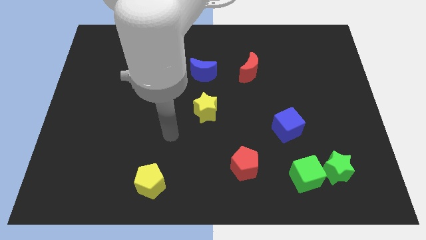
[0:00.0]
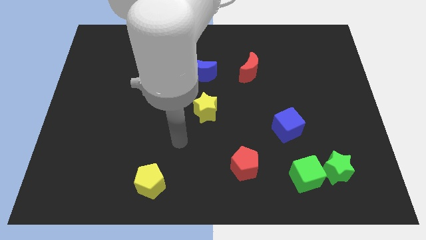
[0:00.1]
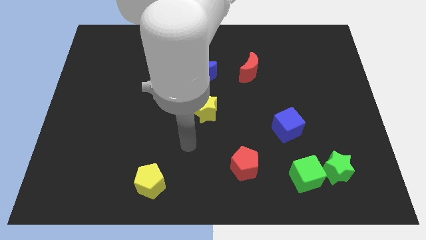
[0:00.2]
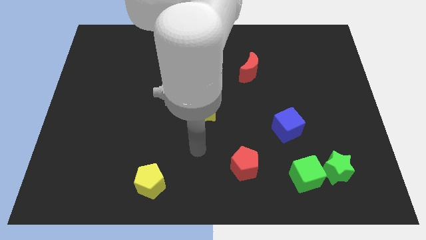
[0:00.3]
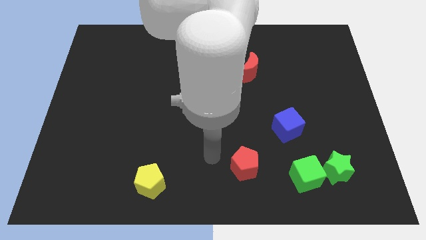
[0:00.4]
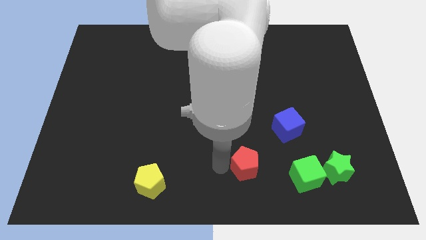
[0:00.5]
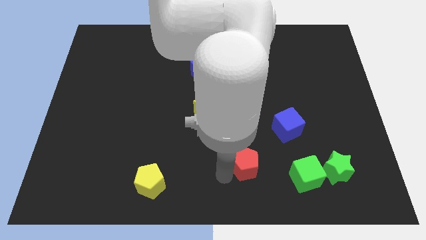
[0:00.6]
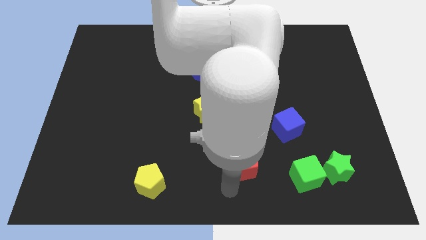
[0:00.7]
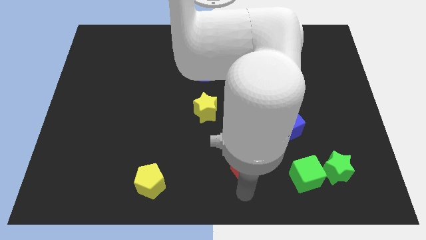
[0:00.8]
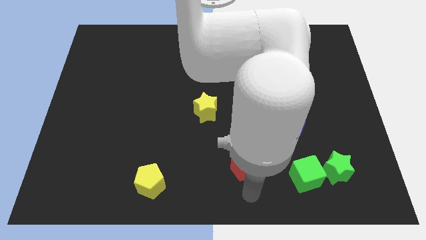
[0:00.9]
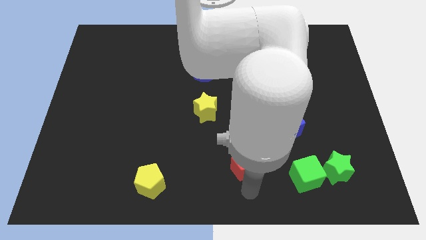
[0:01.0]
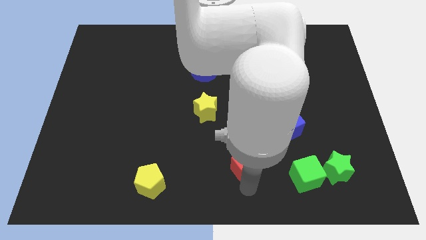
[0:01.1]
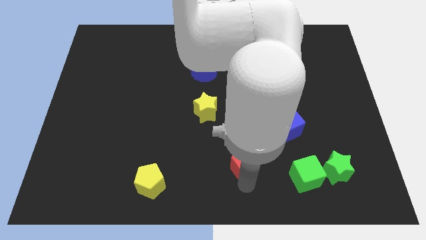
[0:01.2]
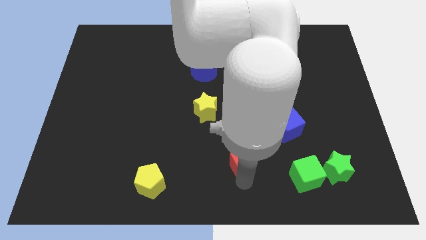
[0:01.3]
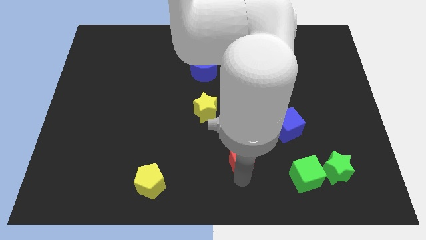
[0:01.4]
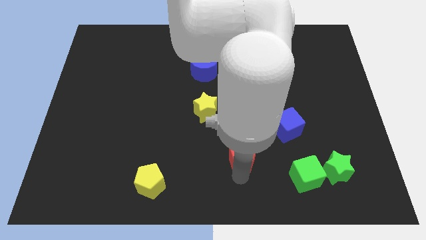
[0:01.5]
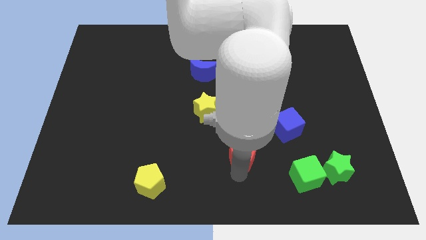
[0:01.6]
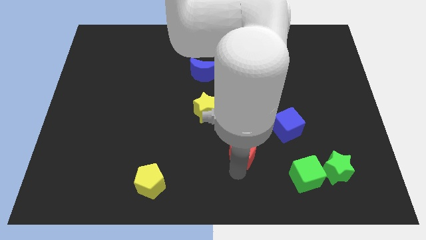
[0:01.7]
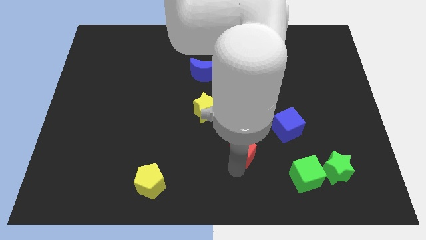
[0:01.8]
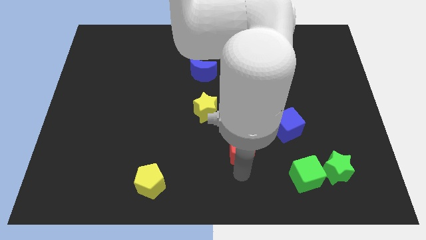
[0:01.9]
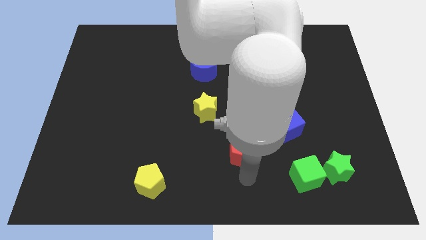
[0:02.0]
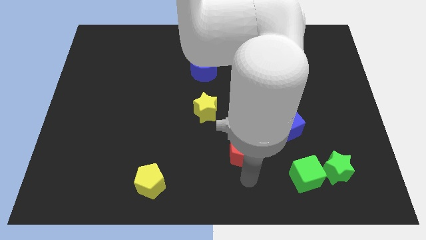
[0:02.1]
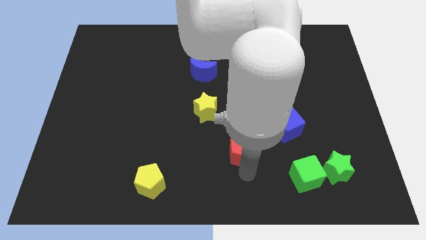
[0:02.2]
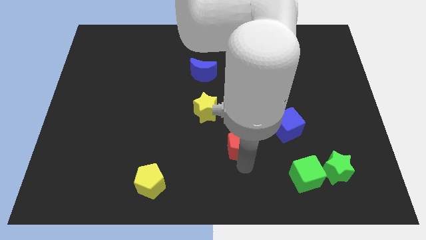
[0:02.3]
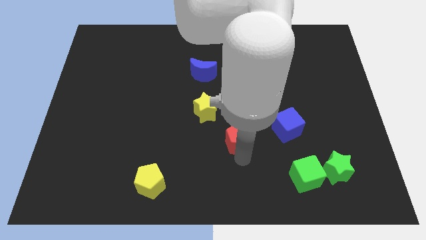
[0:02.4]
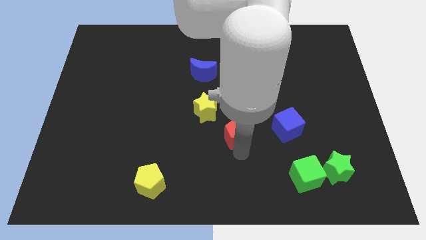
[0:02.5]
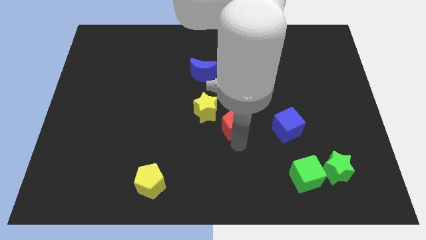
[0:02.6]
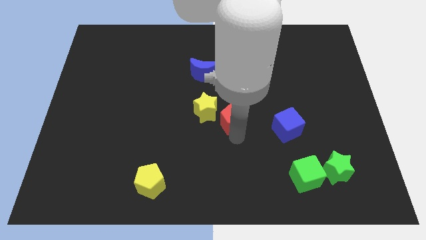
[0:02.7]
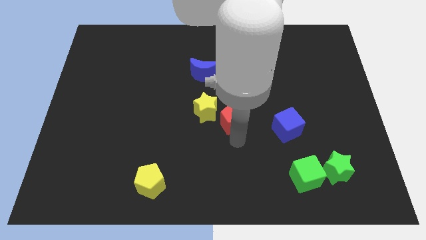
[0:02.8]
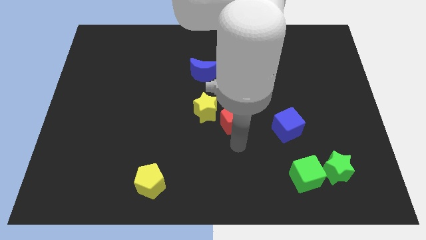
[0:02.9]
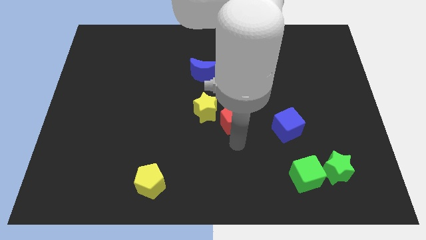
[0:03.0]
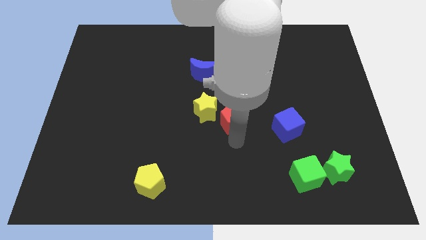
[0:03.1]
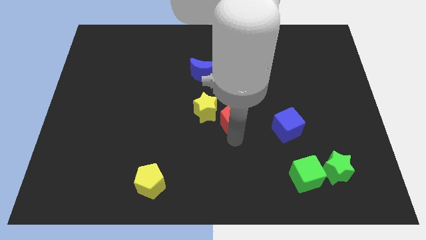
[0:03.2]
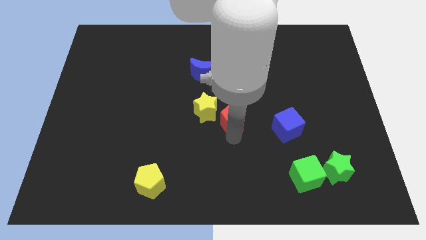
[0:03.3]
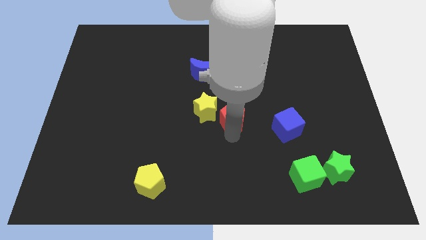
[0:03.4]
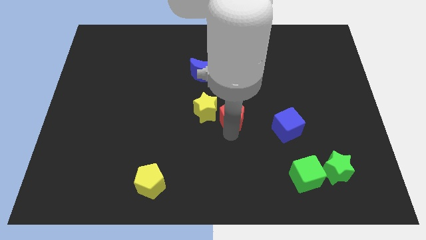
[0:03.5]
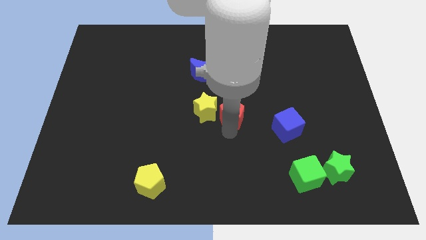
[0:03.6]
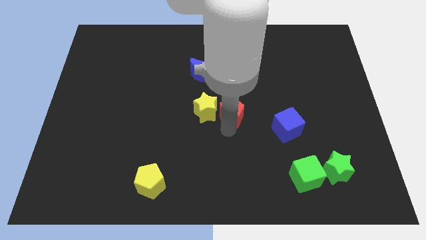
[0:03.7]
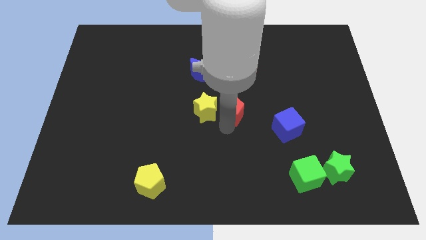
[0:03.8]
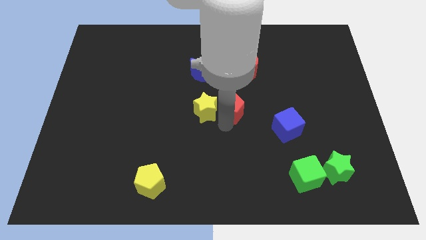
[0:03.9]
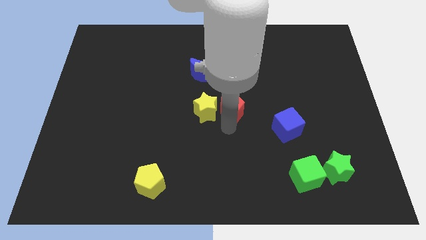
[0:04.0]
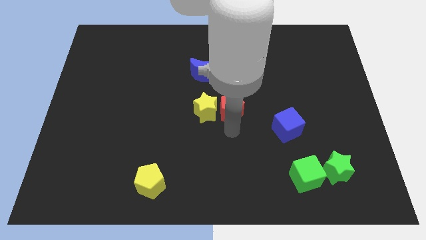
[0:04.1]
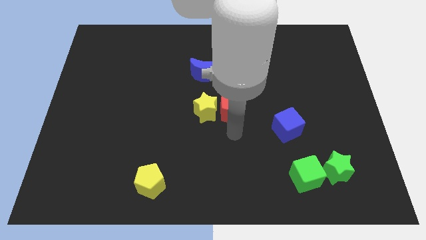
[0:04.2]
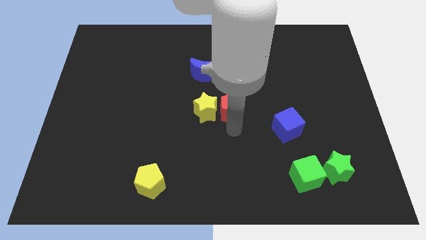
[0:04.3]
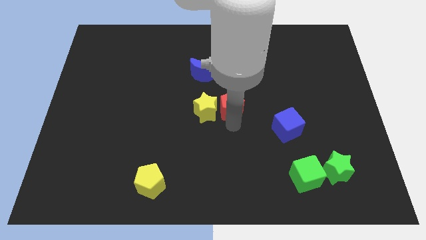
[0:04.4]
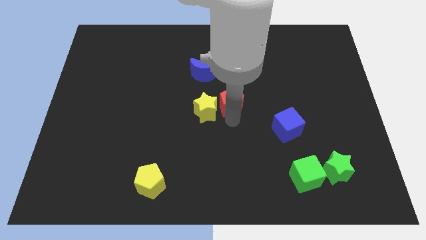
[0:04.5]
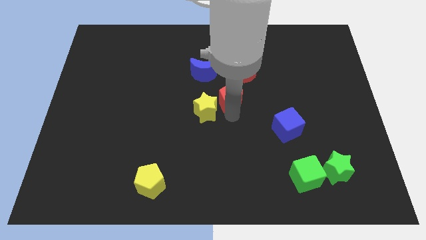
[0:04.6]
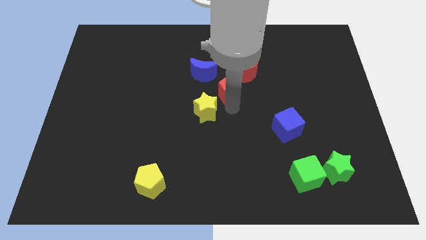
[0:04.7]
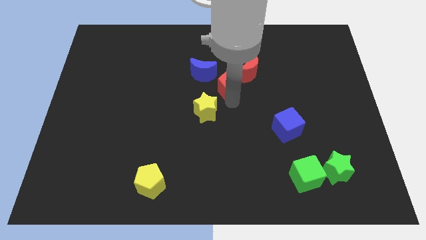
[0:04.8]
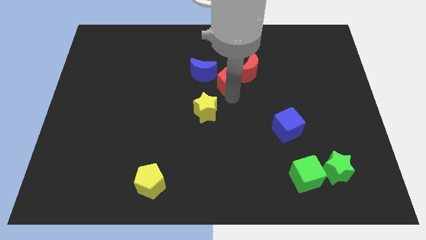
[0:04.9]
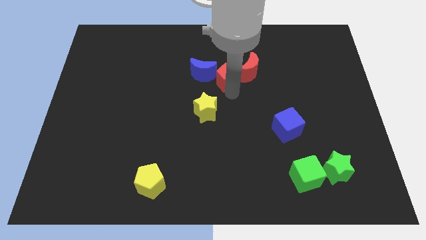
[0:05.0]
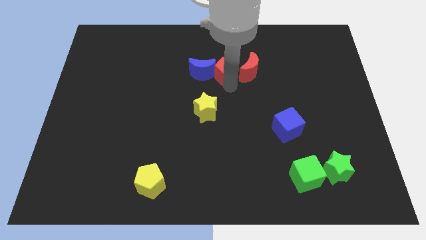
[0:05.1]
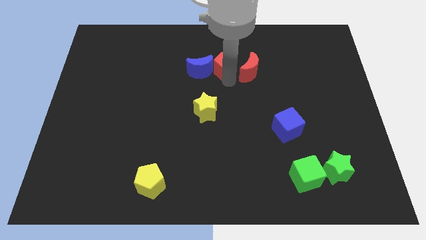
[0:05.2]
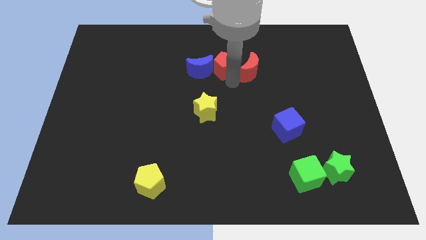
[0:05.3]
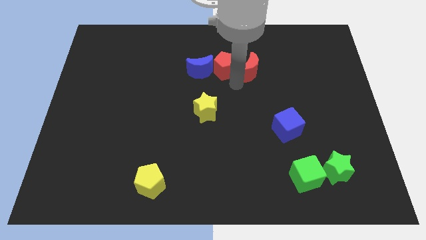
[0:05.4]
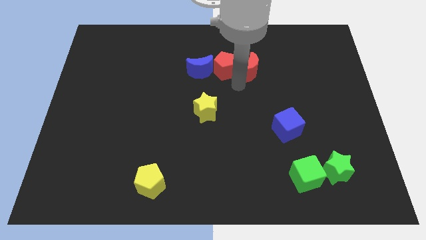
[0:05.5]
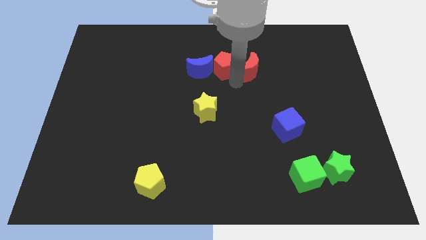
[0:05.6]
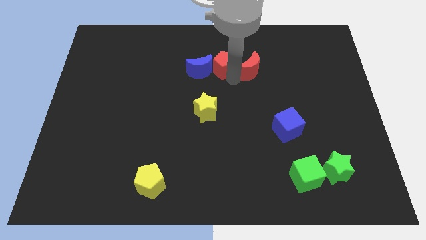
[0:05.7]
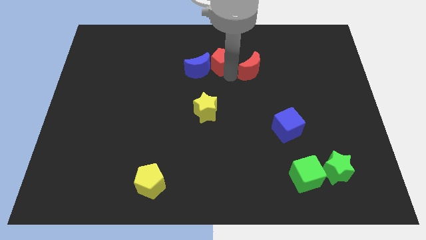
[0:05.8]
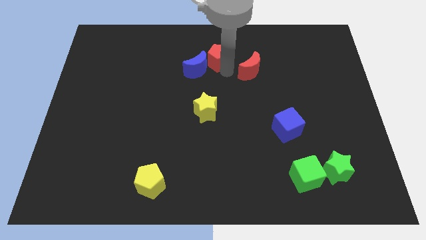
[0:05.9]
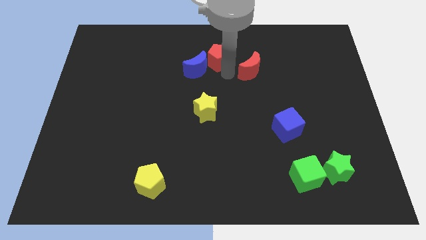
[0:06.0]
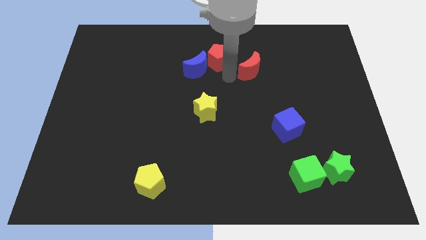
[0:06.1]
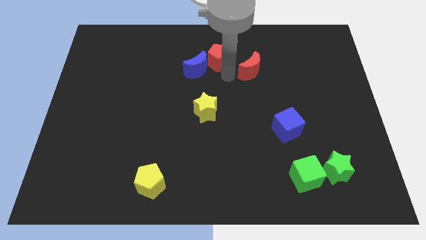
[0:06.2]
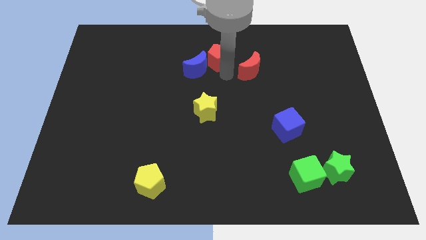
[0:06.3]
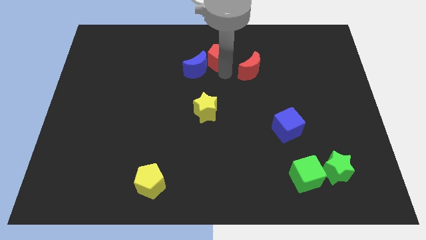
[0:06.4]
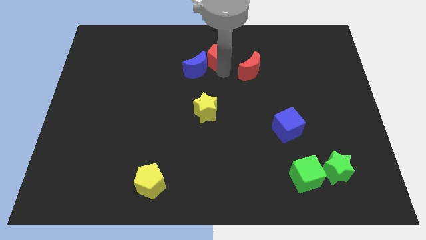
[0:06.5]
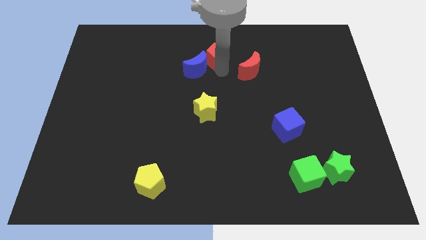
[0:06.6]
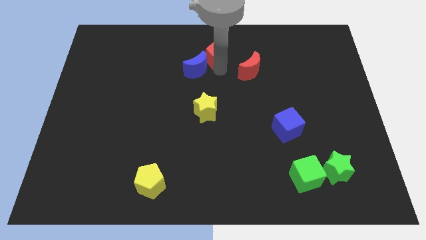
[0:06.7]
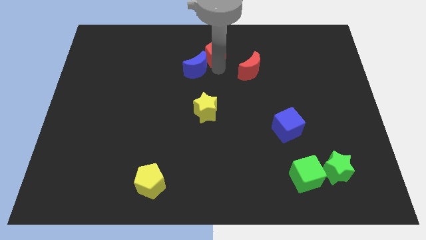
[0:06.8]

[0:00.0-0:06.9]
put the red pentagon to the top side
